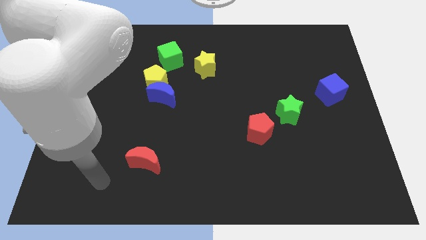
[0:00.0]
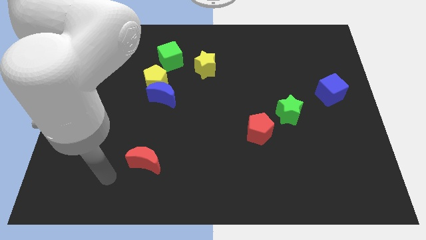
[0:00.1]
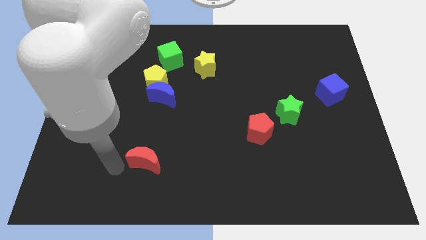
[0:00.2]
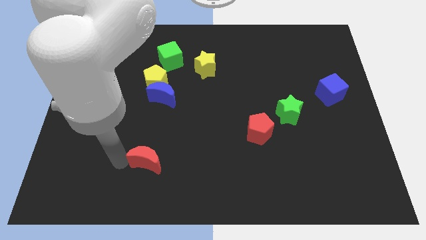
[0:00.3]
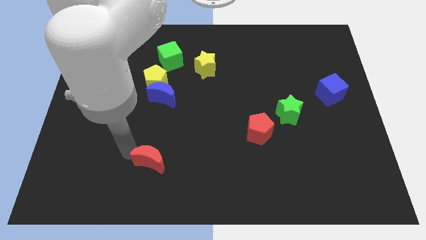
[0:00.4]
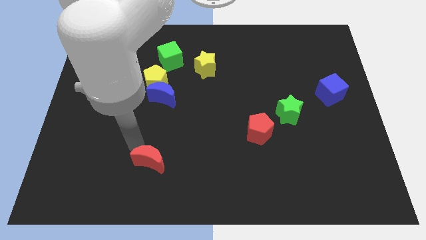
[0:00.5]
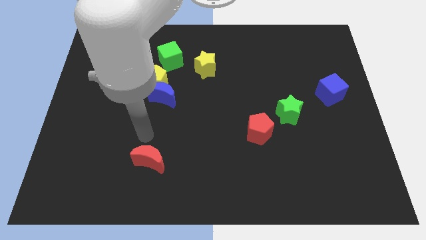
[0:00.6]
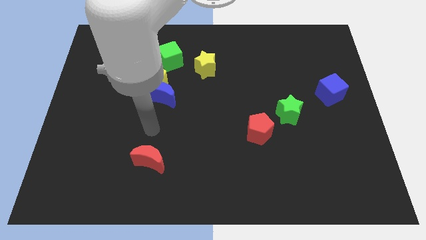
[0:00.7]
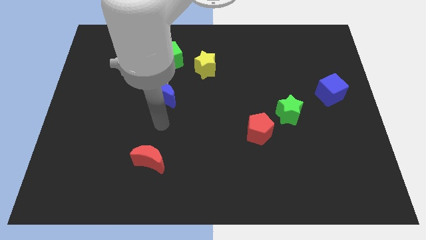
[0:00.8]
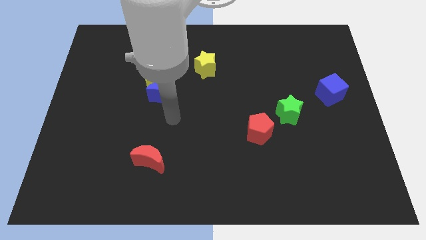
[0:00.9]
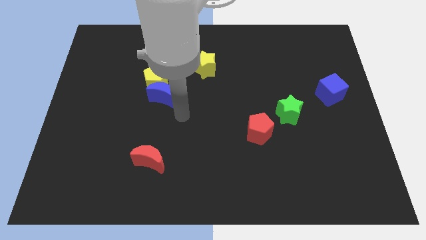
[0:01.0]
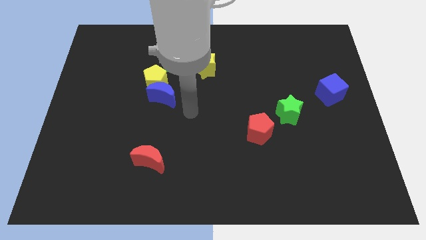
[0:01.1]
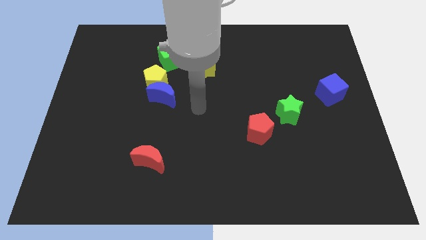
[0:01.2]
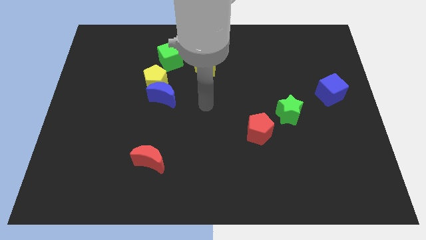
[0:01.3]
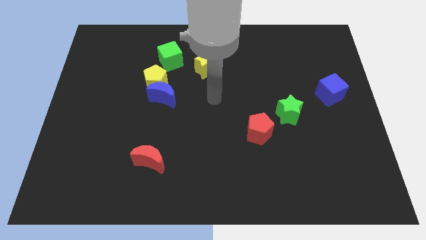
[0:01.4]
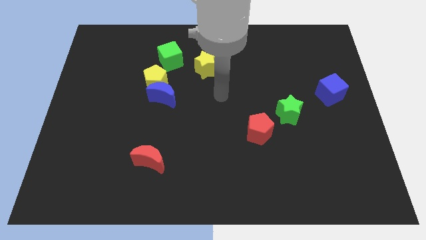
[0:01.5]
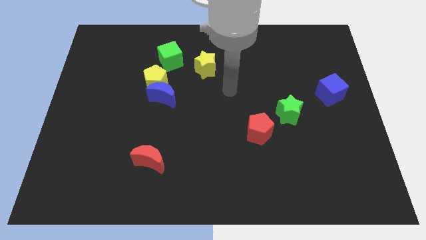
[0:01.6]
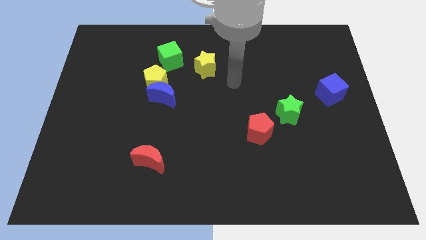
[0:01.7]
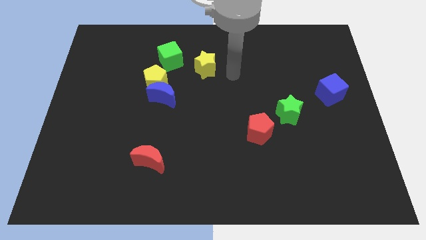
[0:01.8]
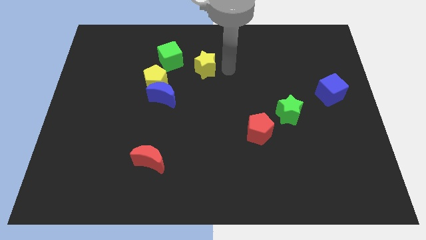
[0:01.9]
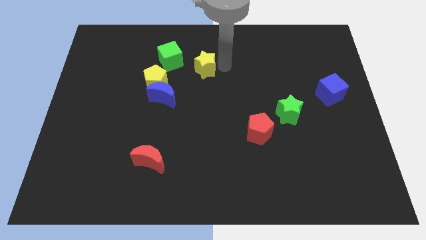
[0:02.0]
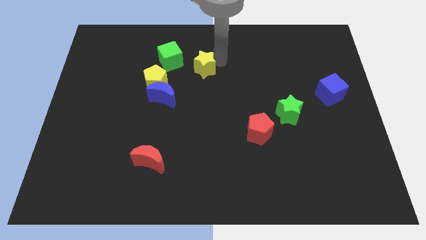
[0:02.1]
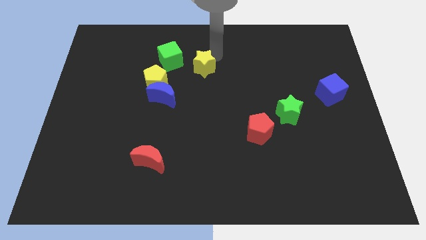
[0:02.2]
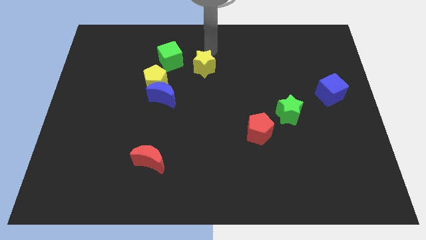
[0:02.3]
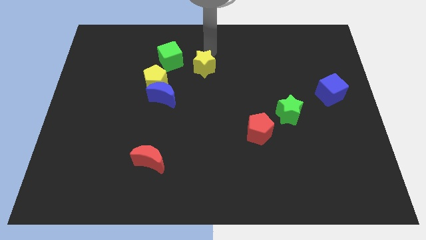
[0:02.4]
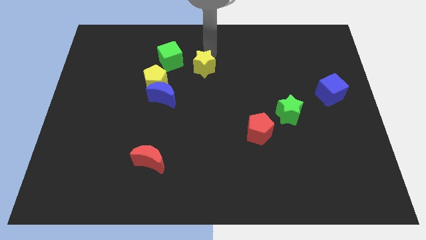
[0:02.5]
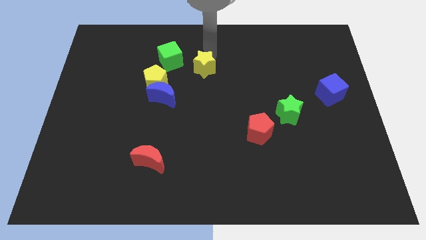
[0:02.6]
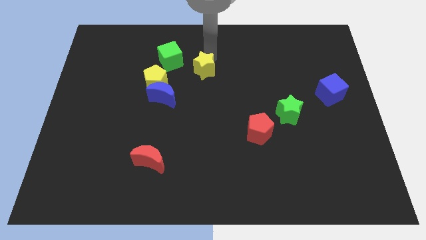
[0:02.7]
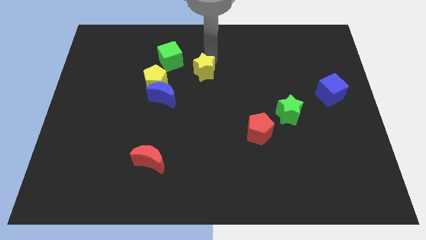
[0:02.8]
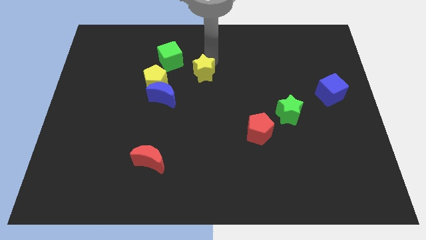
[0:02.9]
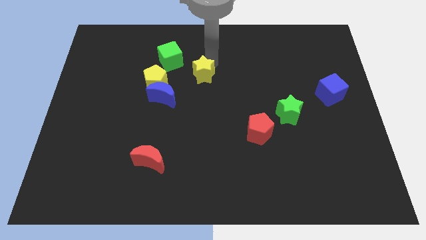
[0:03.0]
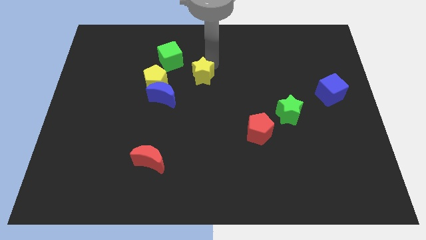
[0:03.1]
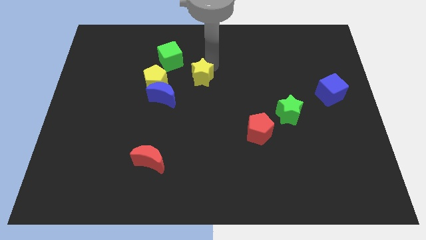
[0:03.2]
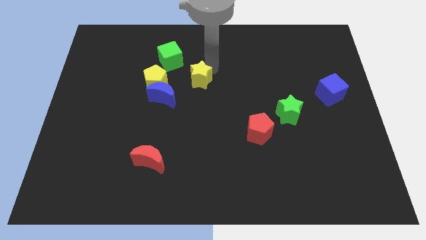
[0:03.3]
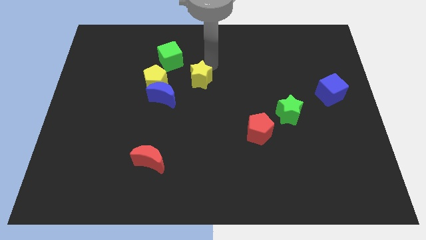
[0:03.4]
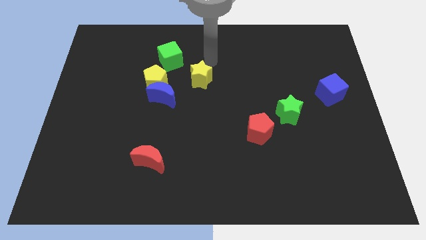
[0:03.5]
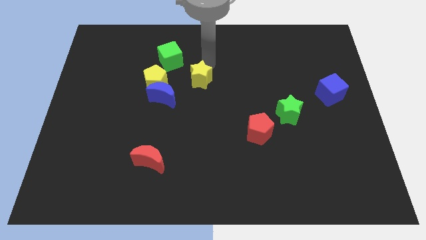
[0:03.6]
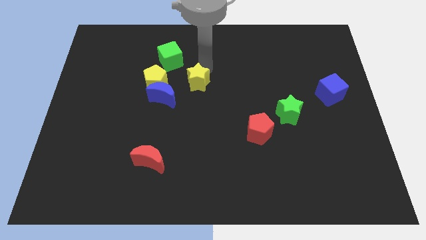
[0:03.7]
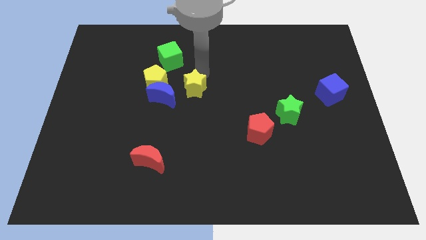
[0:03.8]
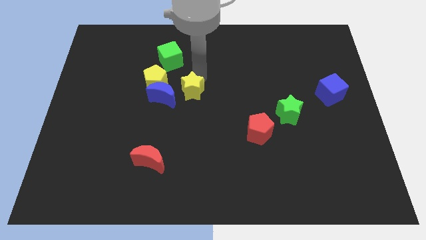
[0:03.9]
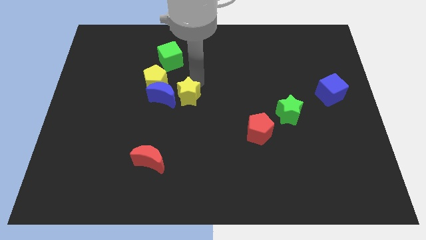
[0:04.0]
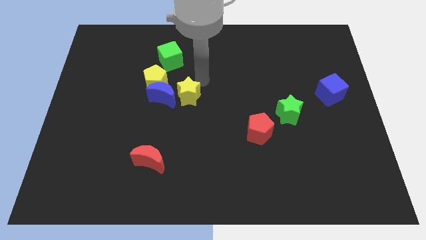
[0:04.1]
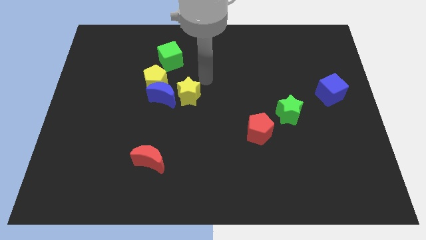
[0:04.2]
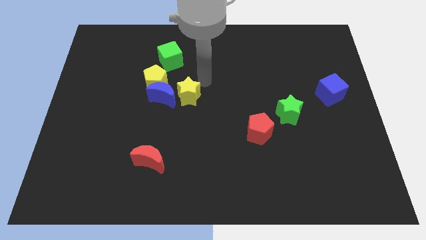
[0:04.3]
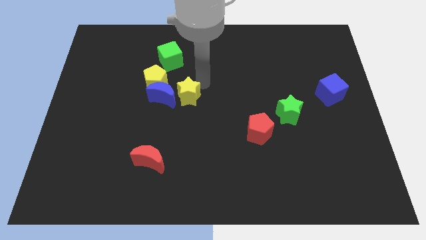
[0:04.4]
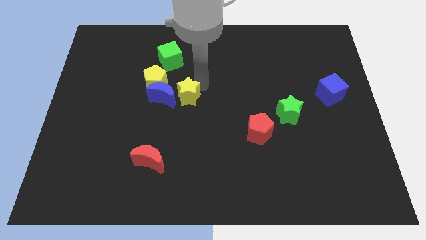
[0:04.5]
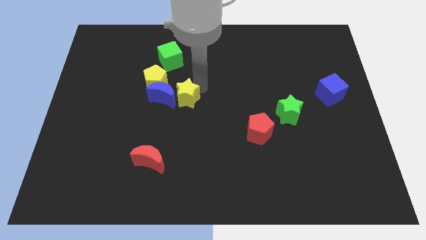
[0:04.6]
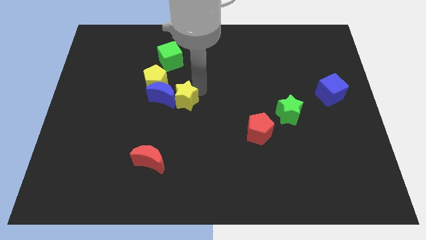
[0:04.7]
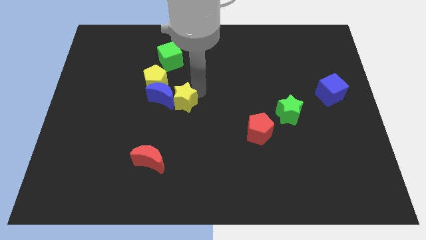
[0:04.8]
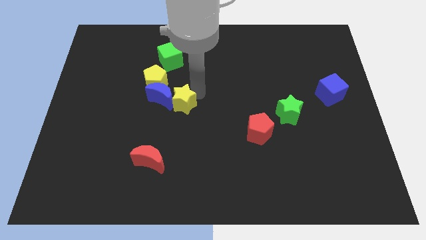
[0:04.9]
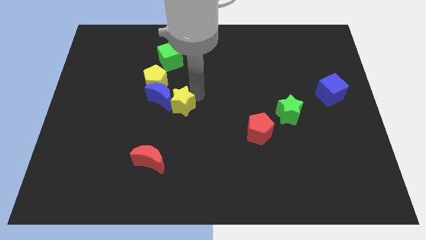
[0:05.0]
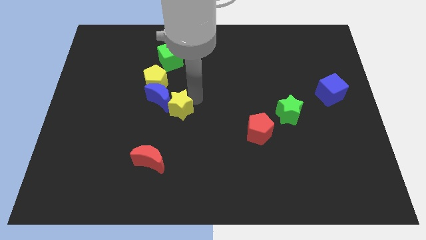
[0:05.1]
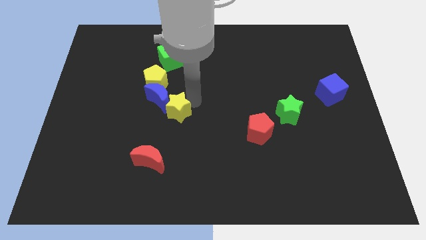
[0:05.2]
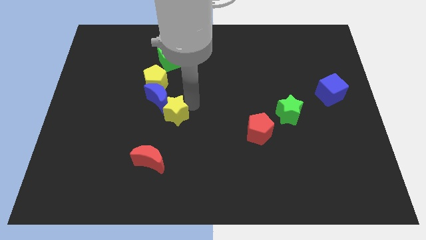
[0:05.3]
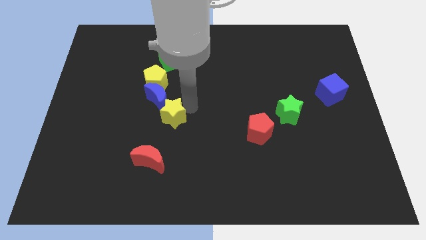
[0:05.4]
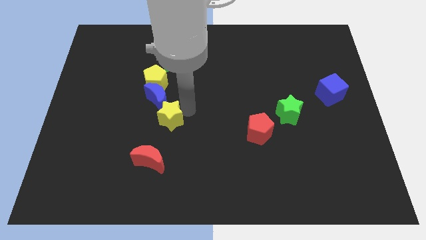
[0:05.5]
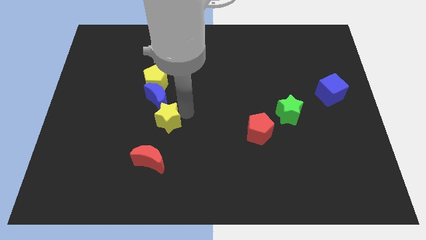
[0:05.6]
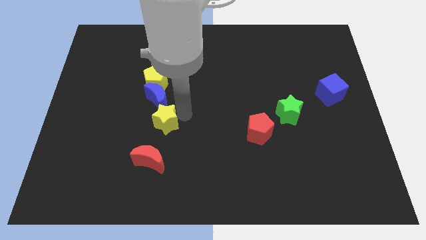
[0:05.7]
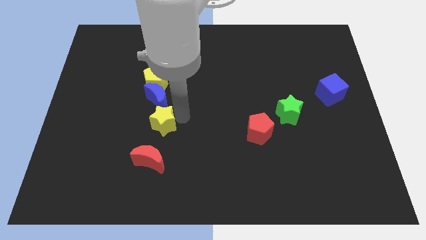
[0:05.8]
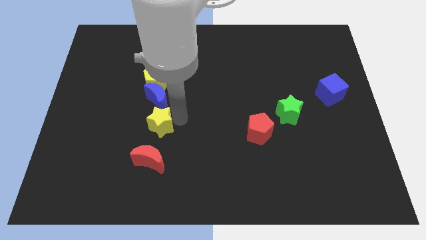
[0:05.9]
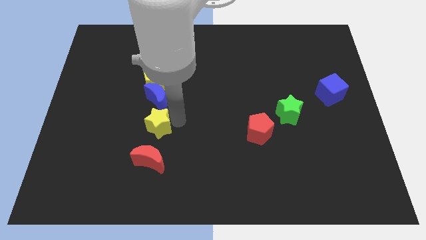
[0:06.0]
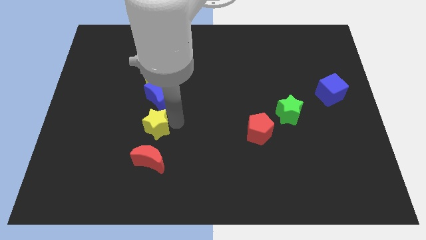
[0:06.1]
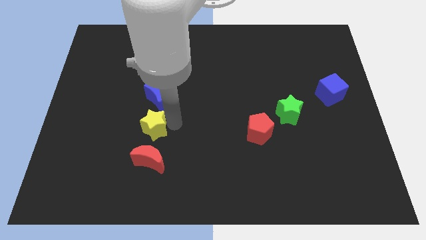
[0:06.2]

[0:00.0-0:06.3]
slide the yellow star downwards and left diagonally

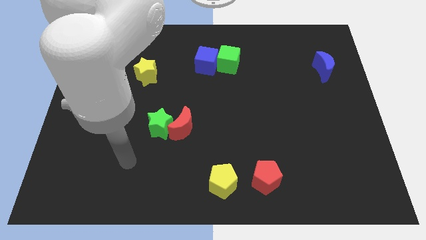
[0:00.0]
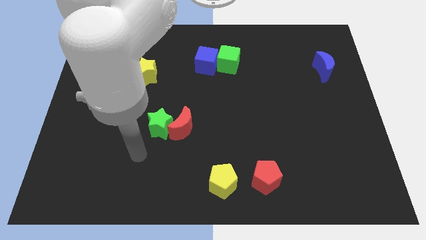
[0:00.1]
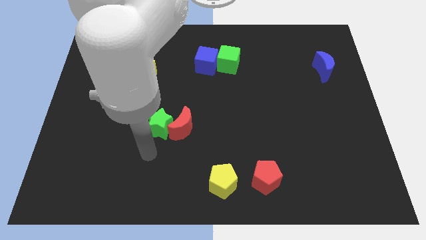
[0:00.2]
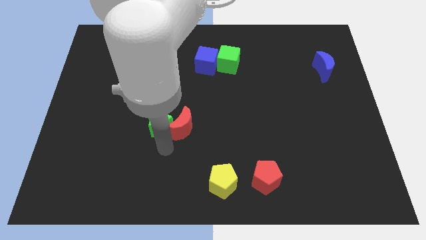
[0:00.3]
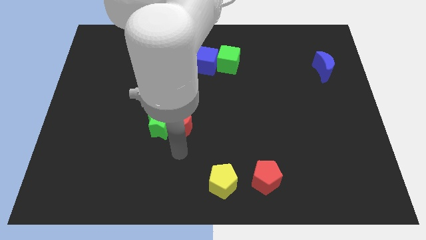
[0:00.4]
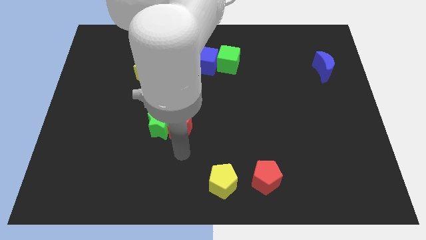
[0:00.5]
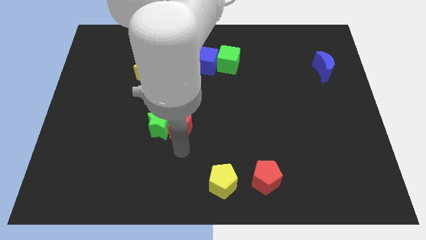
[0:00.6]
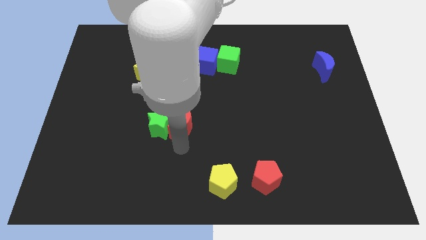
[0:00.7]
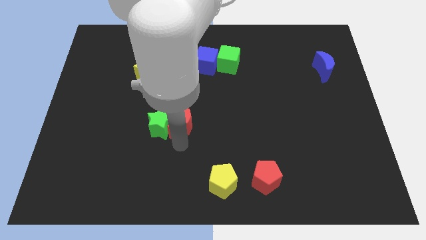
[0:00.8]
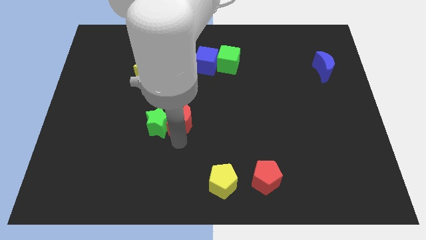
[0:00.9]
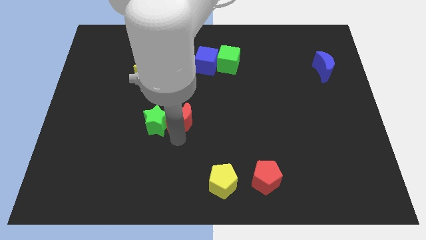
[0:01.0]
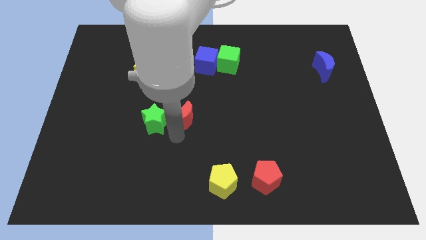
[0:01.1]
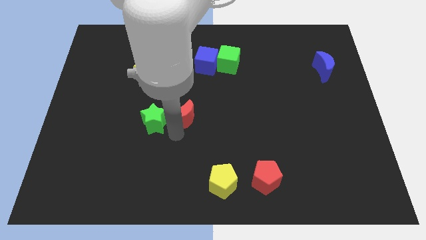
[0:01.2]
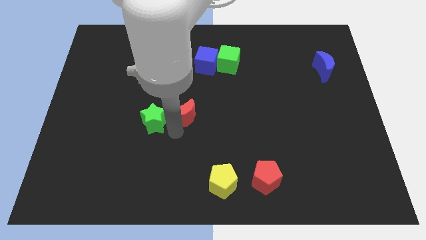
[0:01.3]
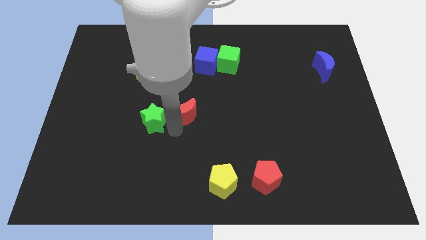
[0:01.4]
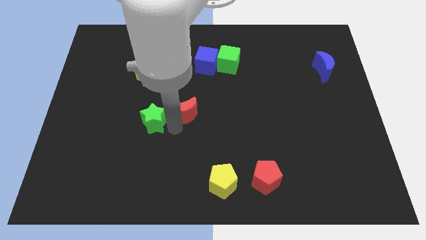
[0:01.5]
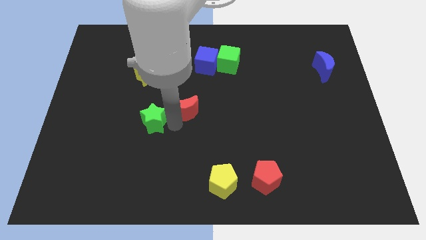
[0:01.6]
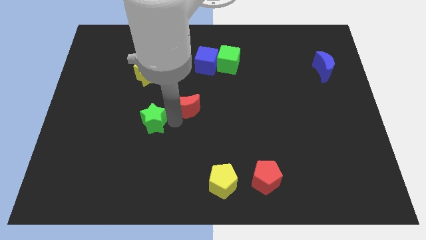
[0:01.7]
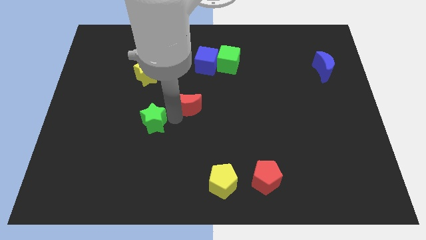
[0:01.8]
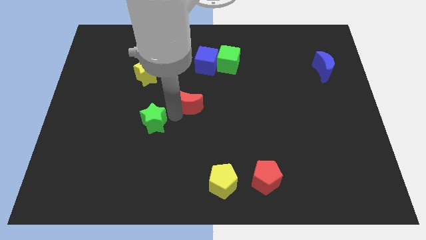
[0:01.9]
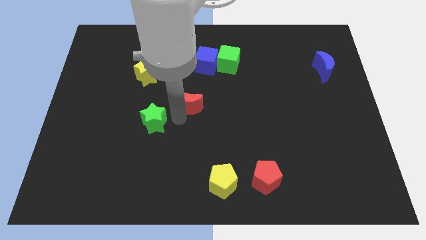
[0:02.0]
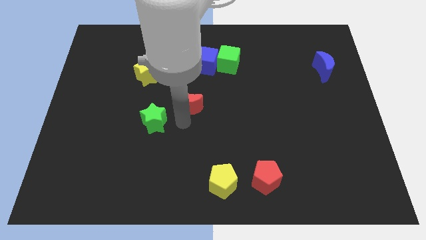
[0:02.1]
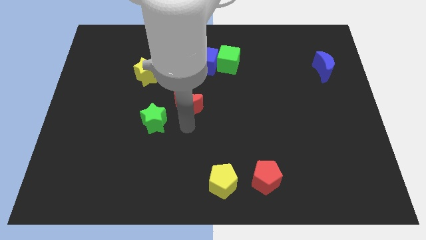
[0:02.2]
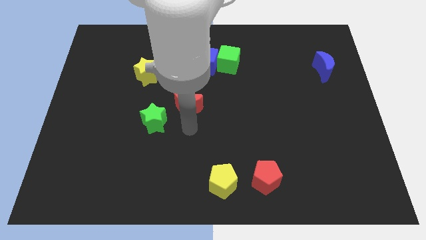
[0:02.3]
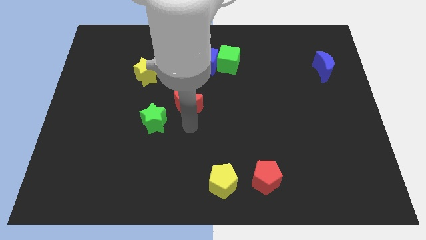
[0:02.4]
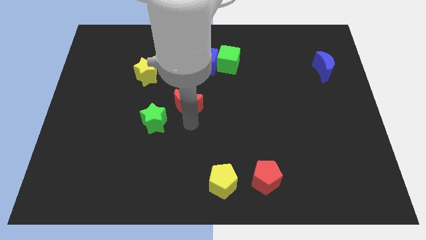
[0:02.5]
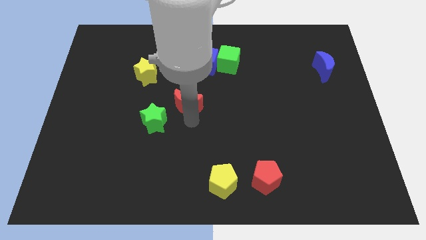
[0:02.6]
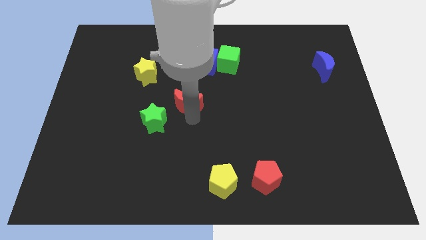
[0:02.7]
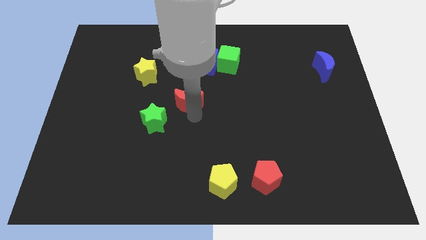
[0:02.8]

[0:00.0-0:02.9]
slightly push the red moon up
